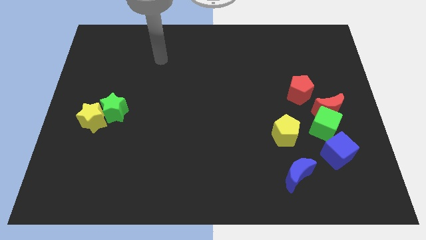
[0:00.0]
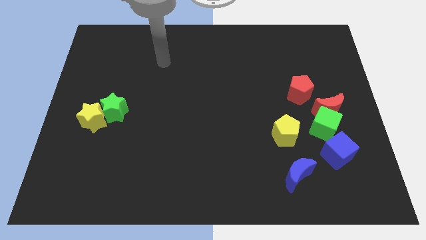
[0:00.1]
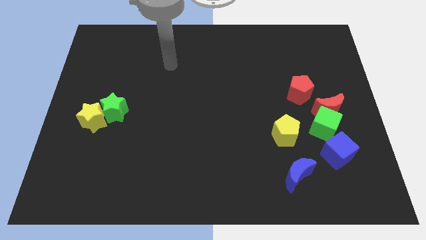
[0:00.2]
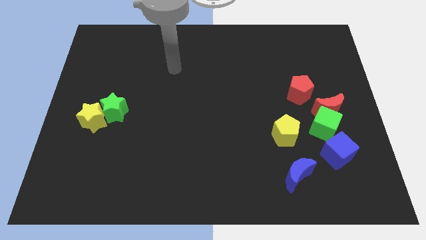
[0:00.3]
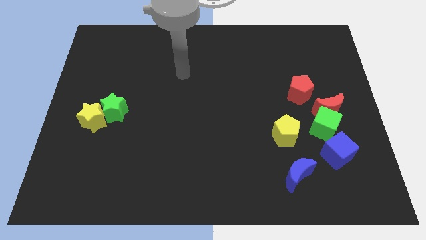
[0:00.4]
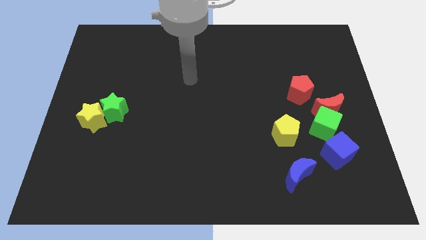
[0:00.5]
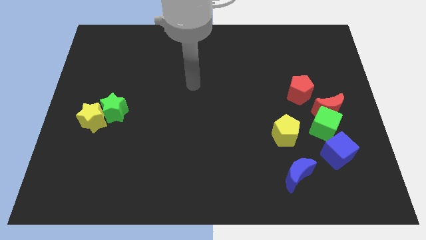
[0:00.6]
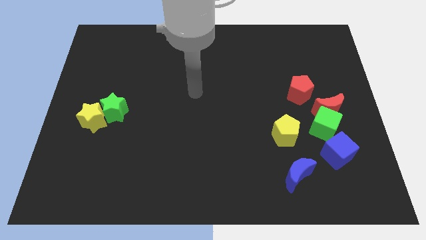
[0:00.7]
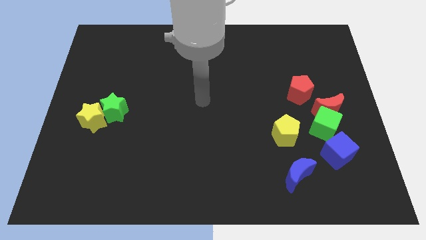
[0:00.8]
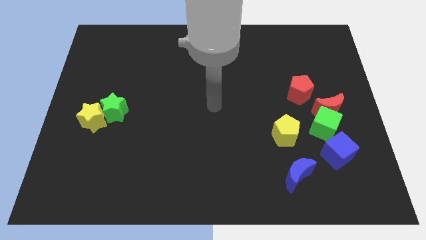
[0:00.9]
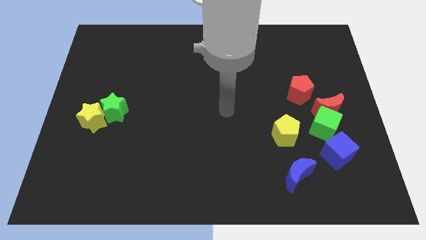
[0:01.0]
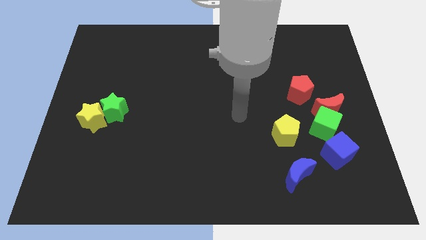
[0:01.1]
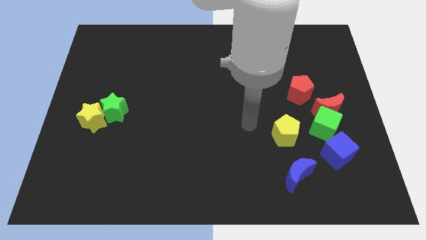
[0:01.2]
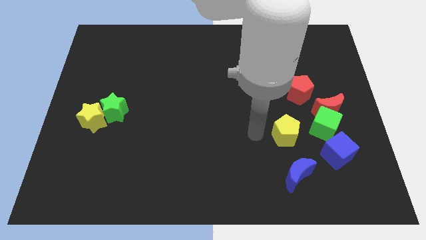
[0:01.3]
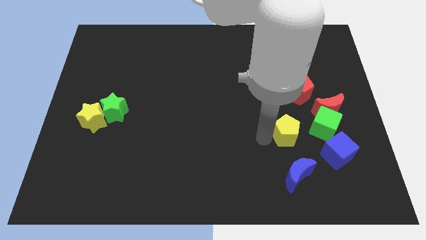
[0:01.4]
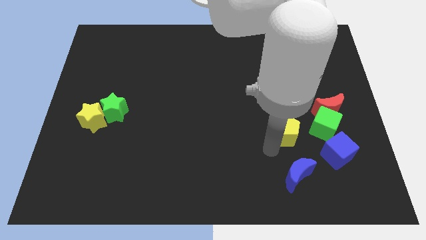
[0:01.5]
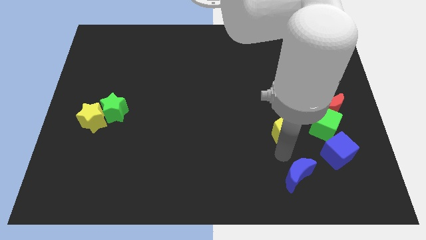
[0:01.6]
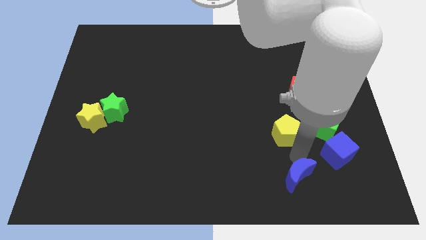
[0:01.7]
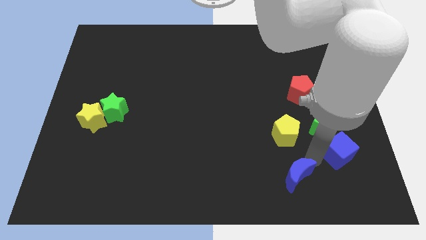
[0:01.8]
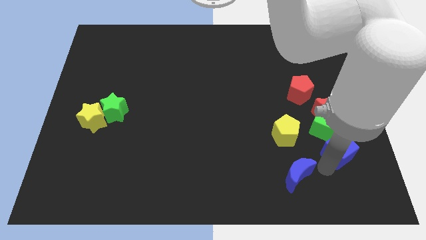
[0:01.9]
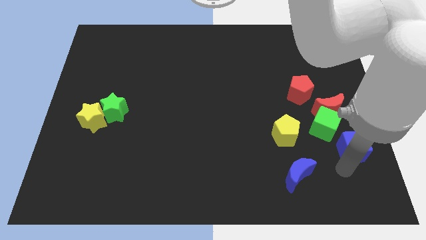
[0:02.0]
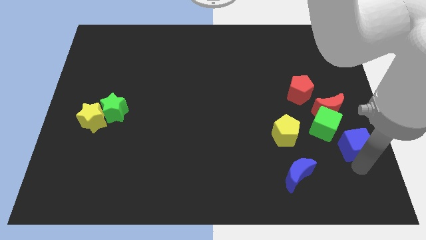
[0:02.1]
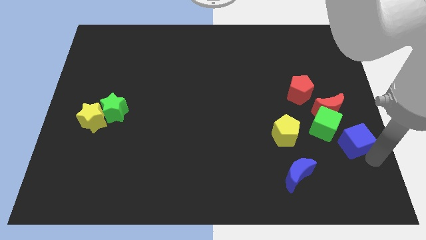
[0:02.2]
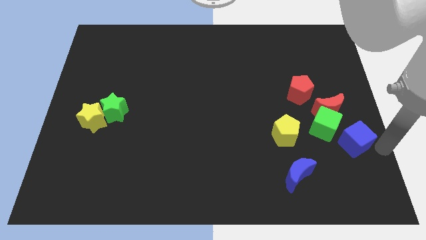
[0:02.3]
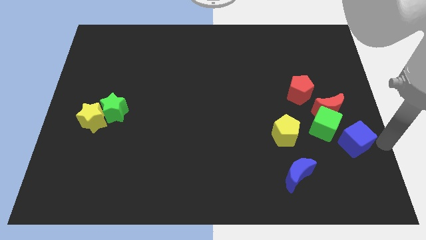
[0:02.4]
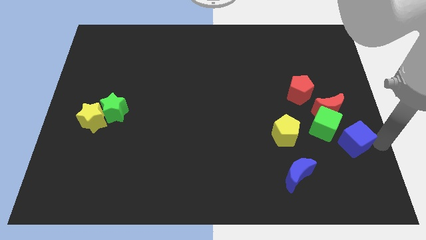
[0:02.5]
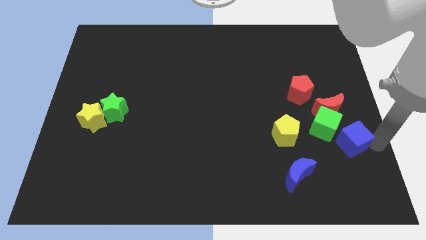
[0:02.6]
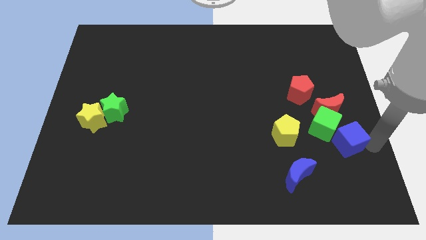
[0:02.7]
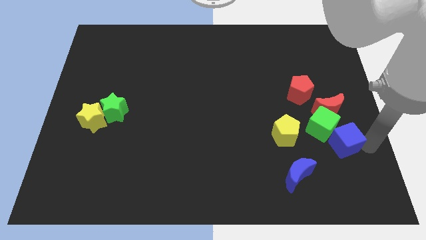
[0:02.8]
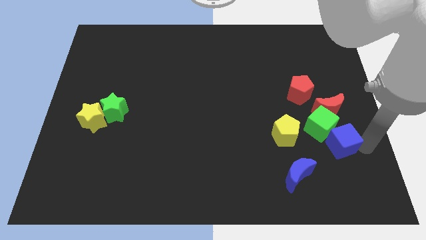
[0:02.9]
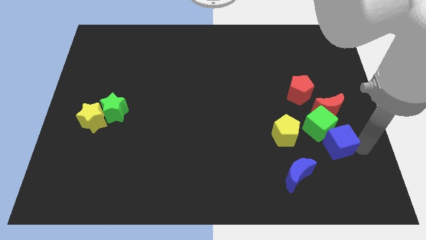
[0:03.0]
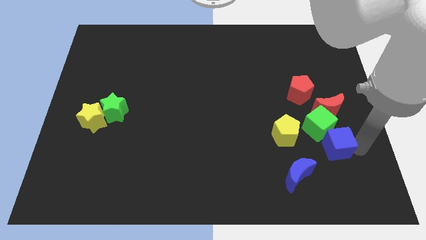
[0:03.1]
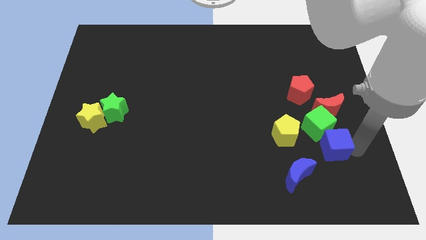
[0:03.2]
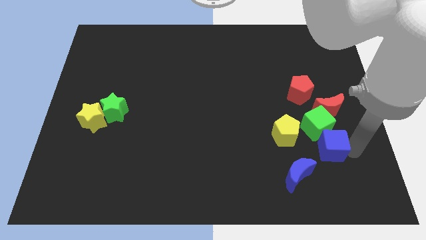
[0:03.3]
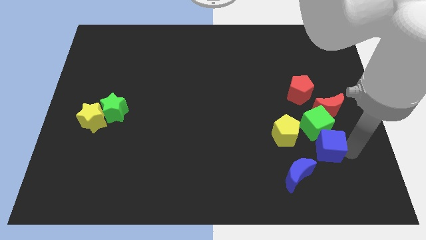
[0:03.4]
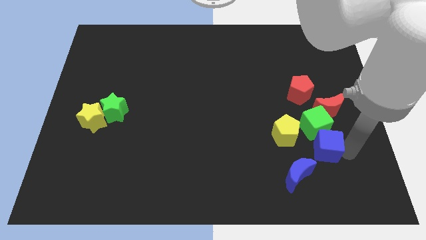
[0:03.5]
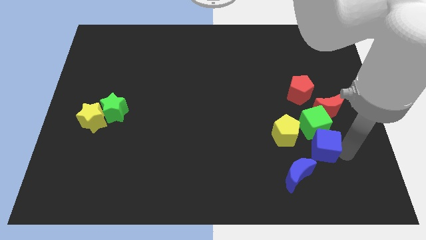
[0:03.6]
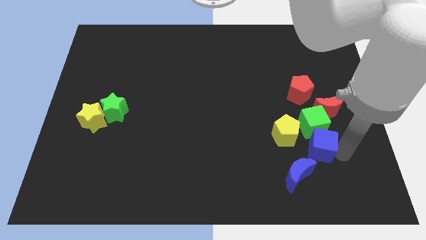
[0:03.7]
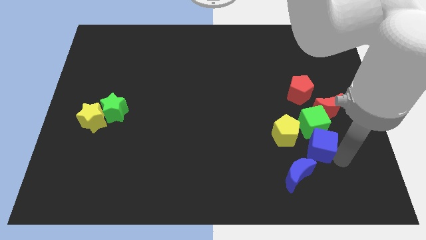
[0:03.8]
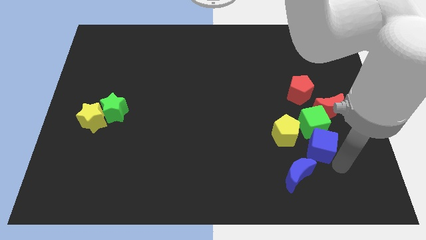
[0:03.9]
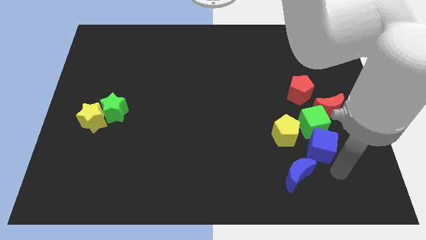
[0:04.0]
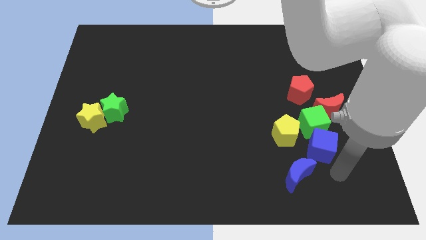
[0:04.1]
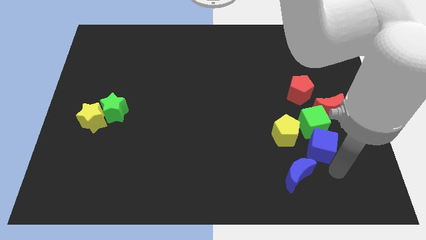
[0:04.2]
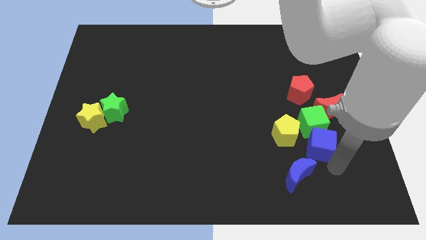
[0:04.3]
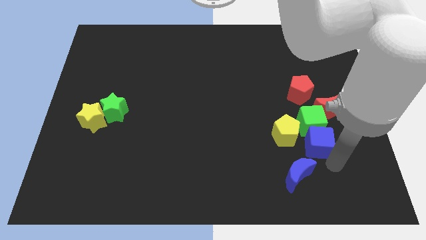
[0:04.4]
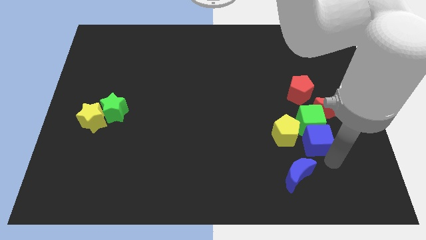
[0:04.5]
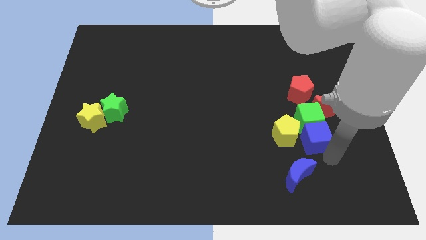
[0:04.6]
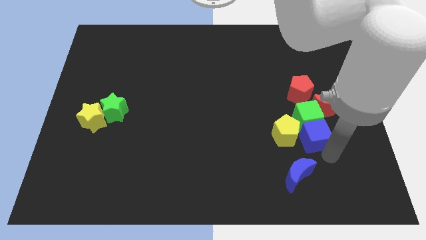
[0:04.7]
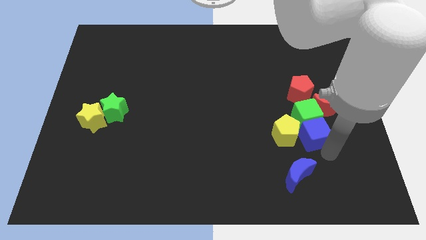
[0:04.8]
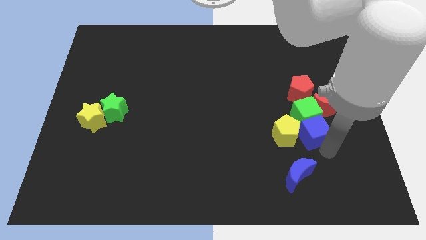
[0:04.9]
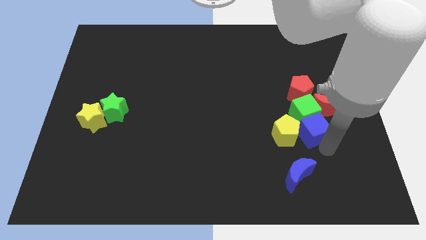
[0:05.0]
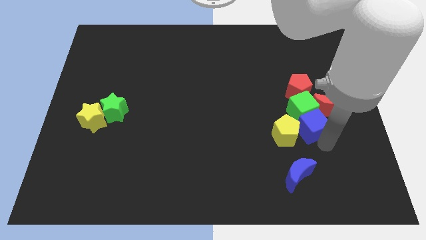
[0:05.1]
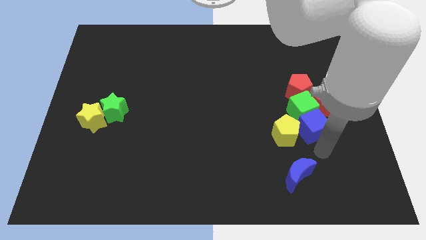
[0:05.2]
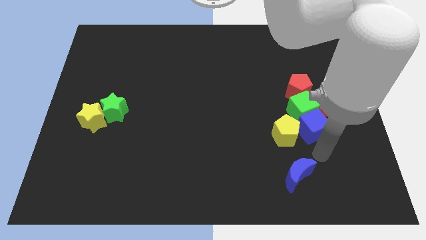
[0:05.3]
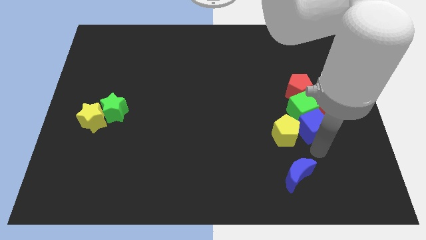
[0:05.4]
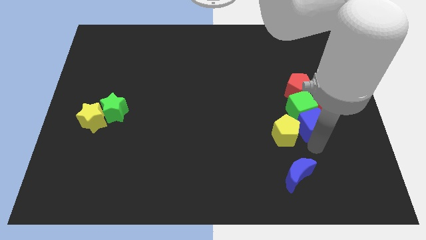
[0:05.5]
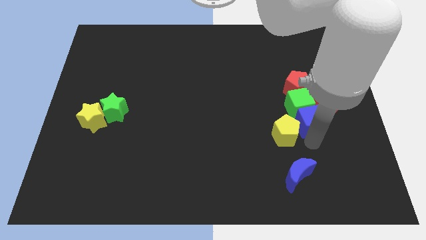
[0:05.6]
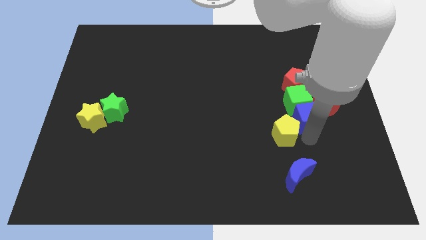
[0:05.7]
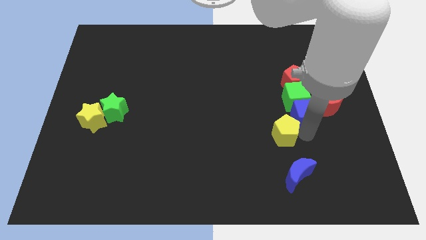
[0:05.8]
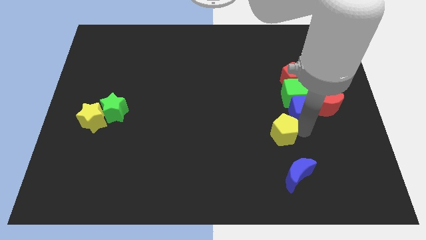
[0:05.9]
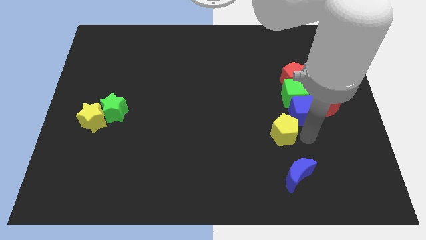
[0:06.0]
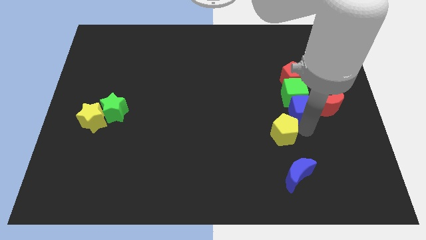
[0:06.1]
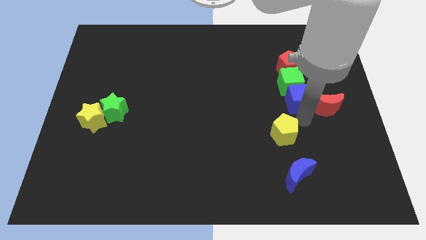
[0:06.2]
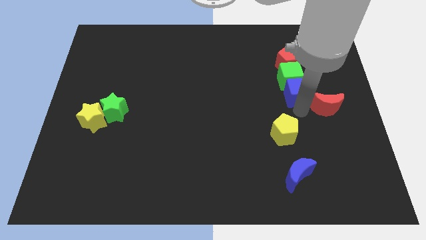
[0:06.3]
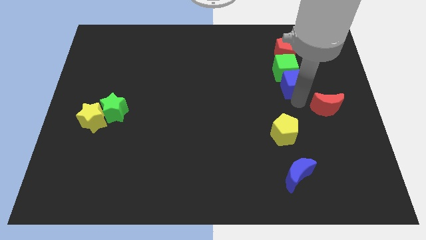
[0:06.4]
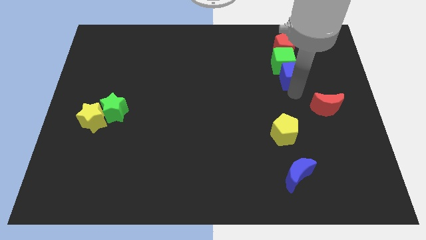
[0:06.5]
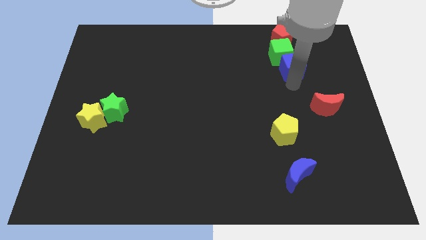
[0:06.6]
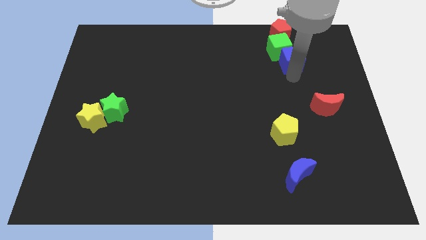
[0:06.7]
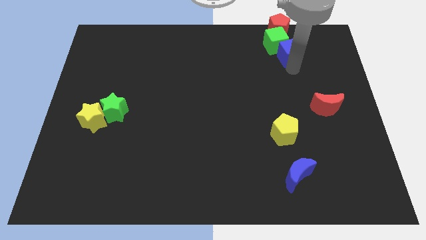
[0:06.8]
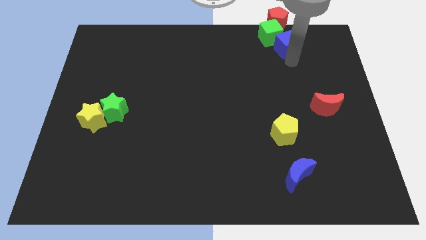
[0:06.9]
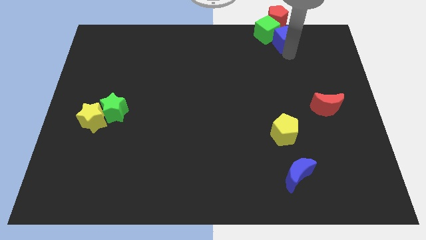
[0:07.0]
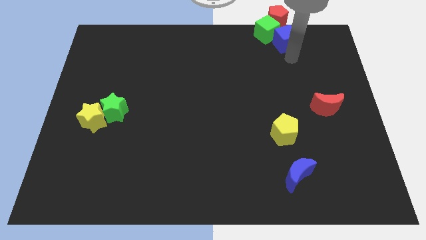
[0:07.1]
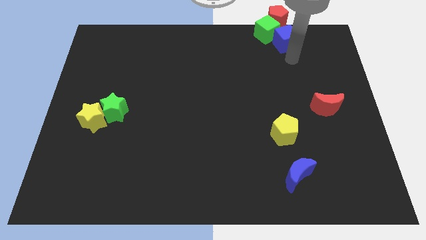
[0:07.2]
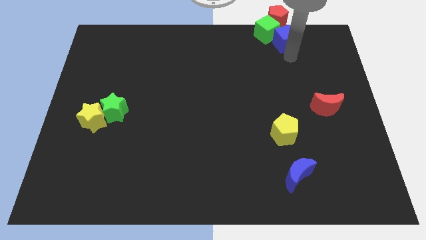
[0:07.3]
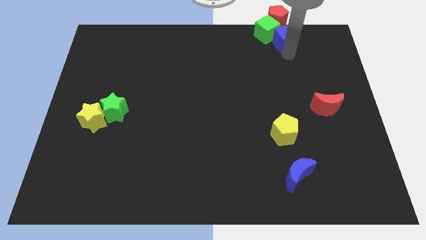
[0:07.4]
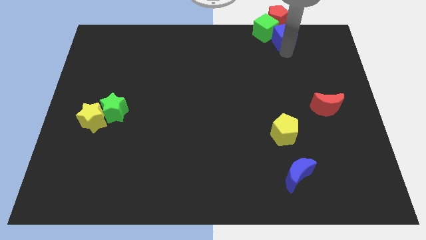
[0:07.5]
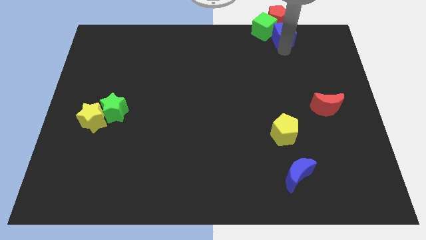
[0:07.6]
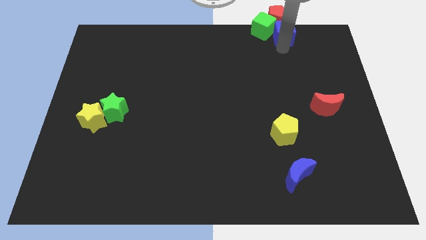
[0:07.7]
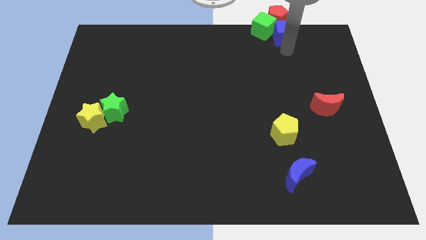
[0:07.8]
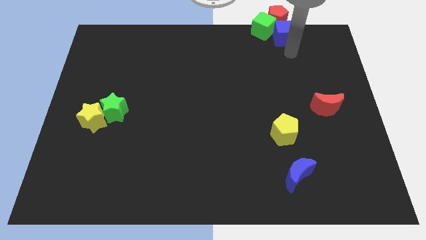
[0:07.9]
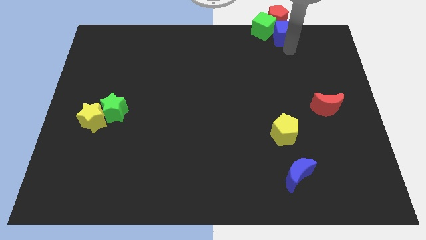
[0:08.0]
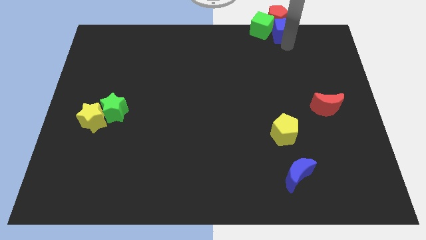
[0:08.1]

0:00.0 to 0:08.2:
move the blue cube close to the red pentagon
